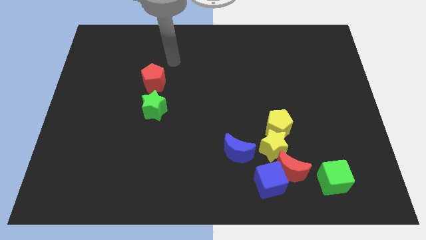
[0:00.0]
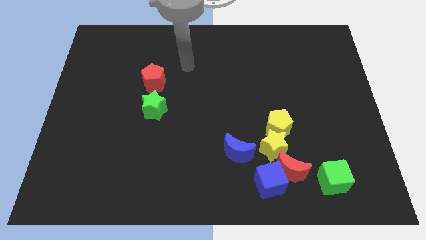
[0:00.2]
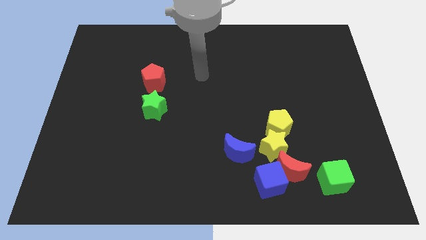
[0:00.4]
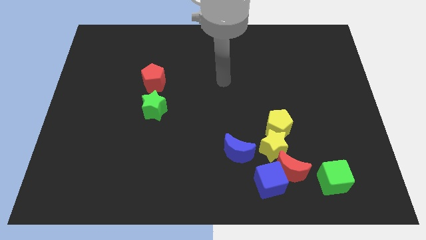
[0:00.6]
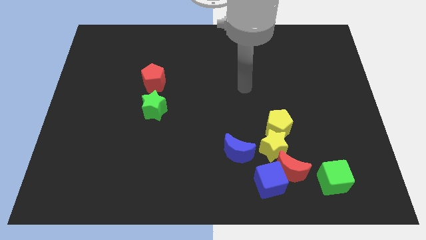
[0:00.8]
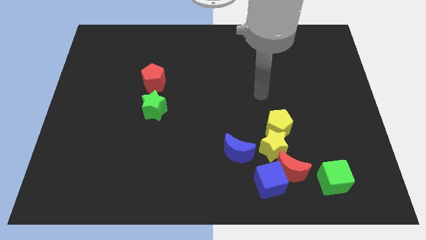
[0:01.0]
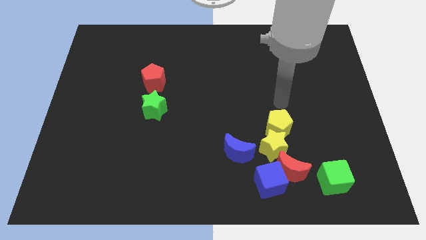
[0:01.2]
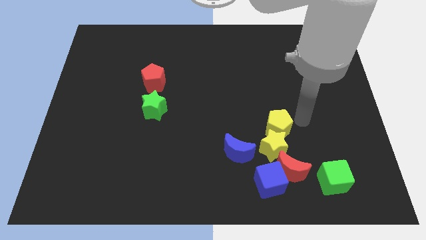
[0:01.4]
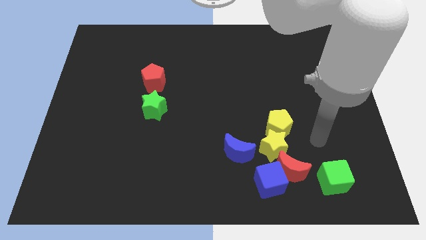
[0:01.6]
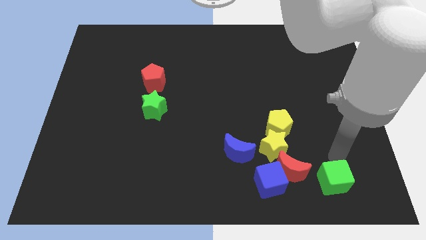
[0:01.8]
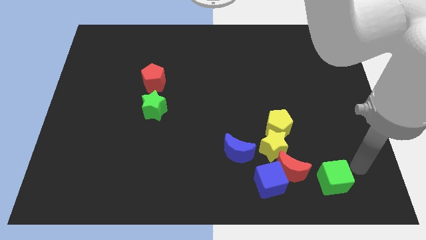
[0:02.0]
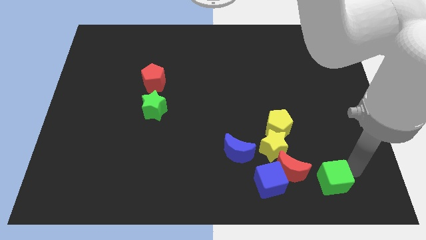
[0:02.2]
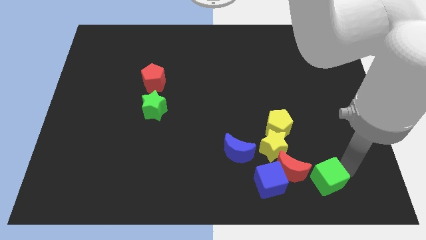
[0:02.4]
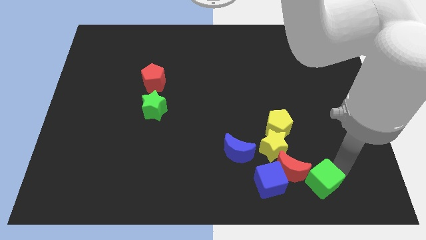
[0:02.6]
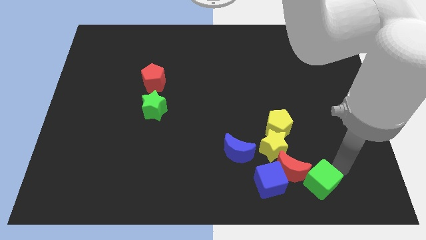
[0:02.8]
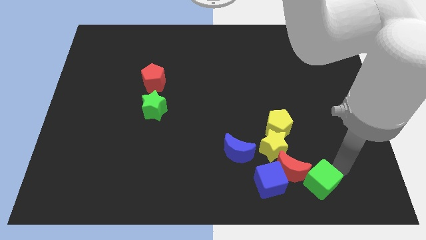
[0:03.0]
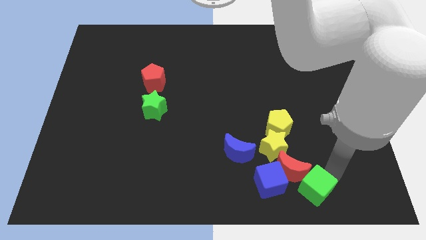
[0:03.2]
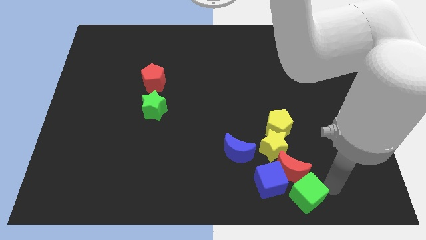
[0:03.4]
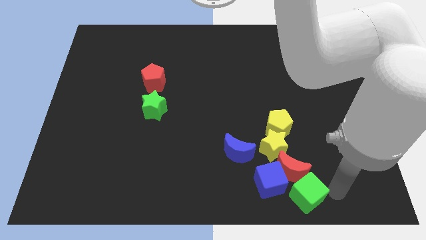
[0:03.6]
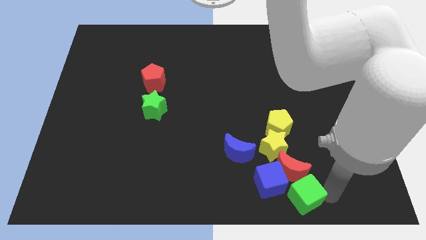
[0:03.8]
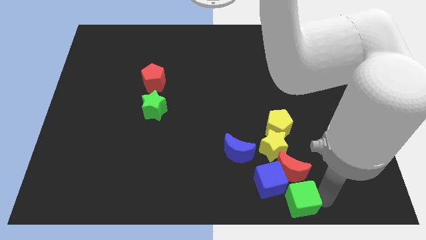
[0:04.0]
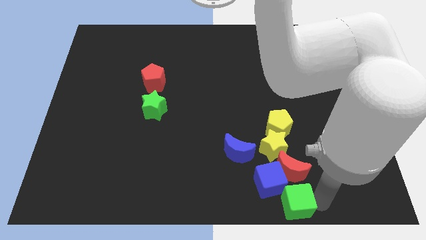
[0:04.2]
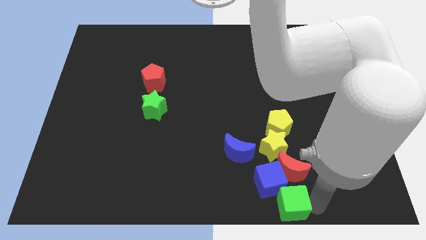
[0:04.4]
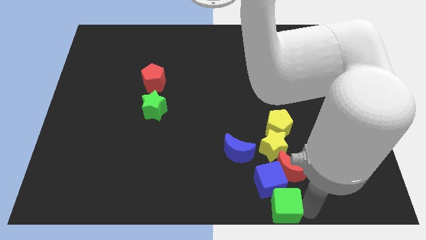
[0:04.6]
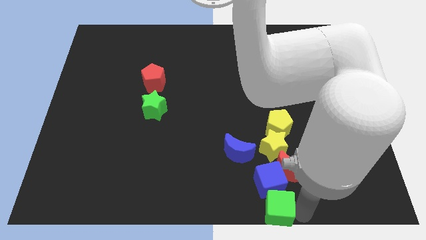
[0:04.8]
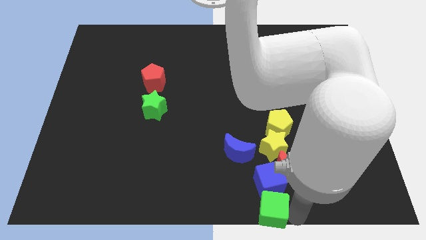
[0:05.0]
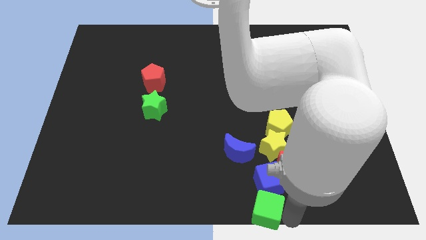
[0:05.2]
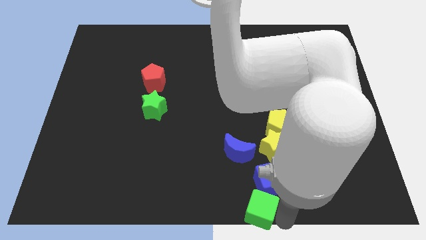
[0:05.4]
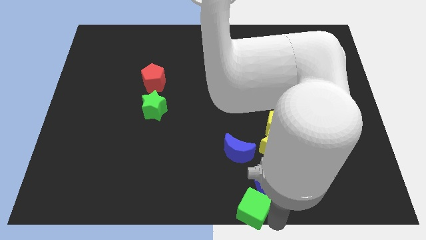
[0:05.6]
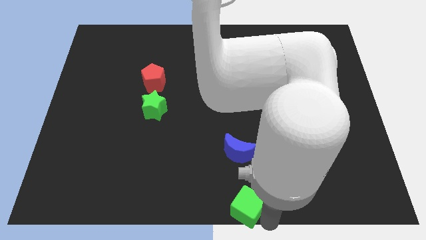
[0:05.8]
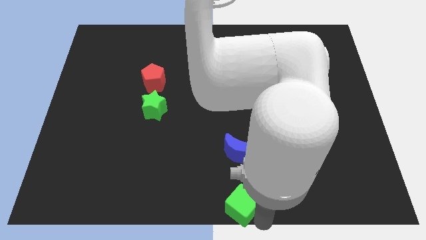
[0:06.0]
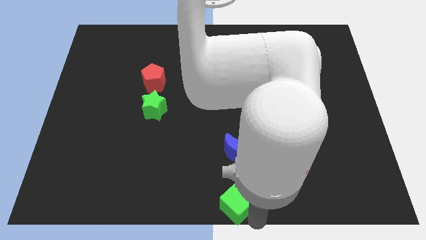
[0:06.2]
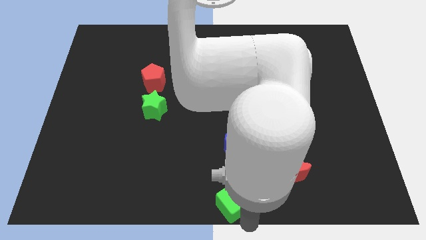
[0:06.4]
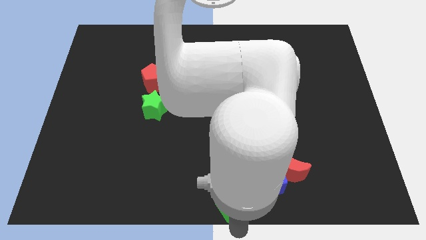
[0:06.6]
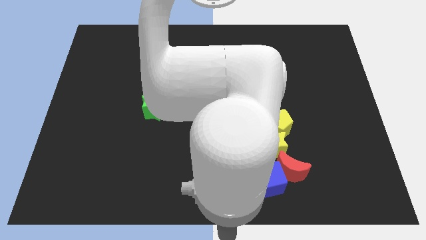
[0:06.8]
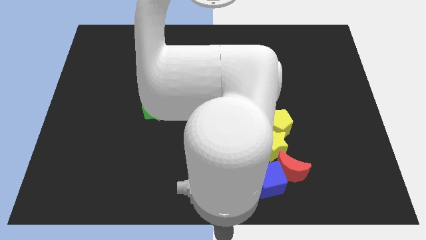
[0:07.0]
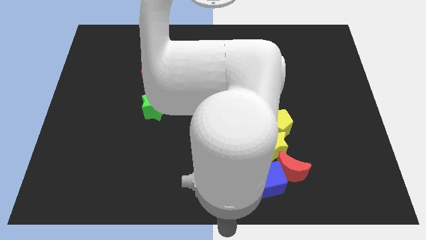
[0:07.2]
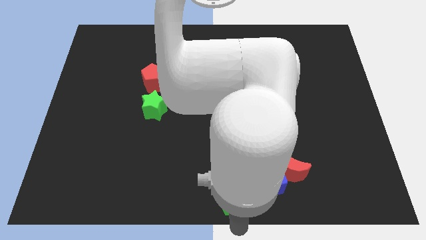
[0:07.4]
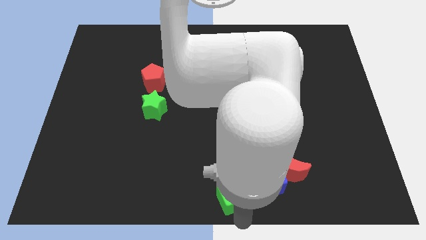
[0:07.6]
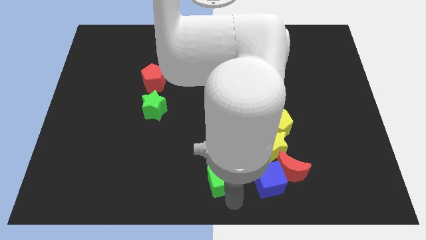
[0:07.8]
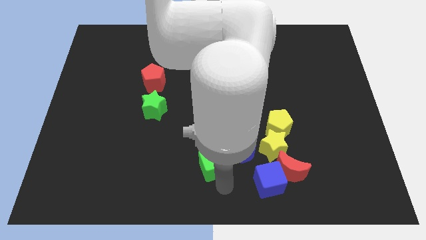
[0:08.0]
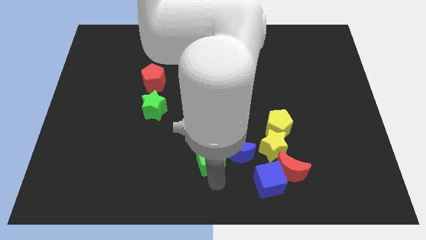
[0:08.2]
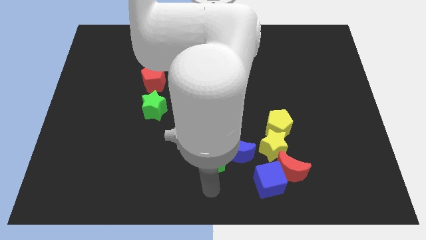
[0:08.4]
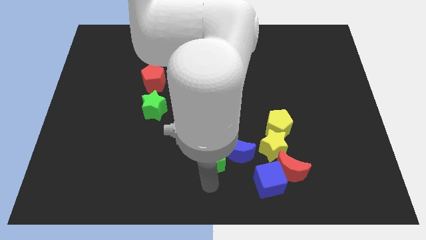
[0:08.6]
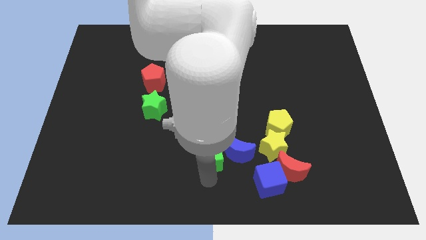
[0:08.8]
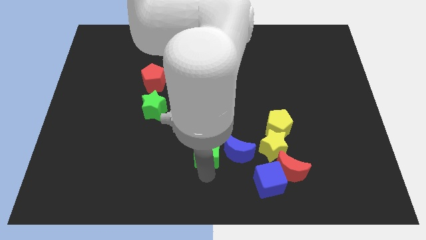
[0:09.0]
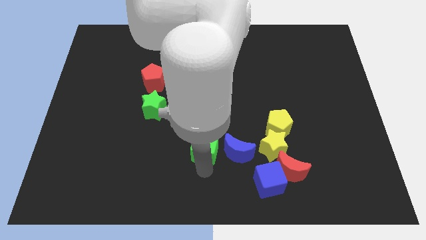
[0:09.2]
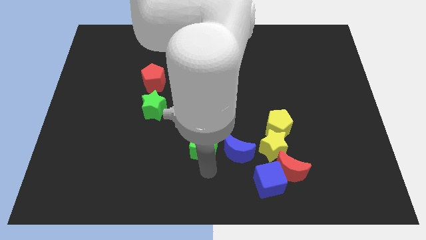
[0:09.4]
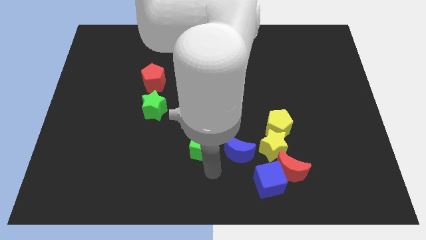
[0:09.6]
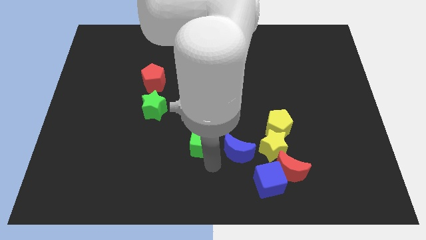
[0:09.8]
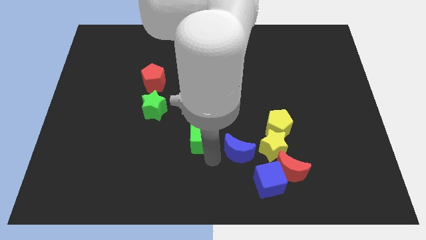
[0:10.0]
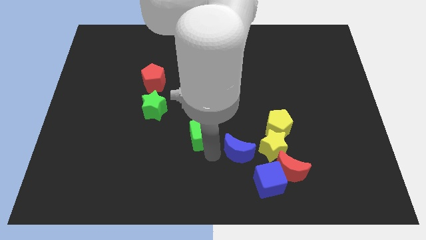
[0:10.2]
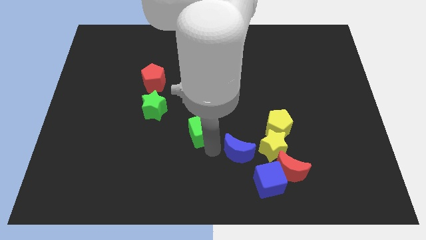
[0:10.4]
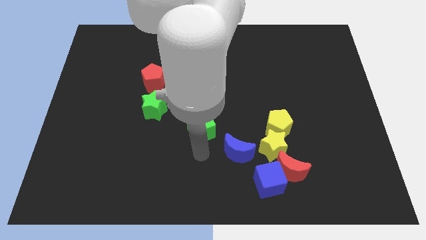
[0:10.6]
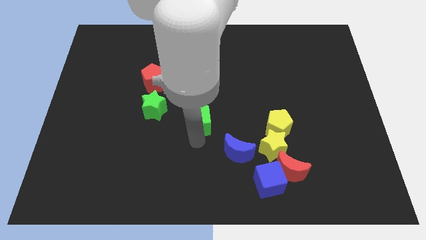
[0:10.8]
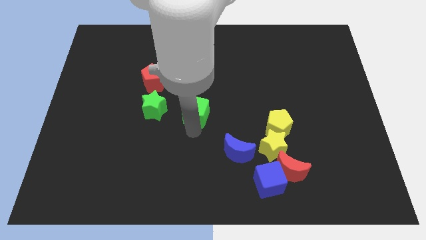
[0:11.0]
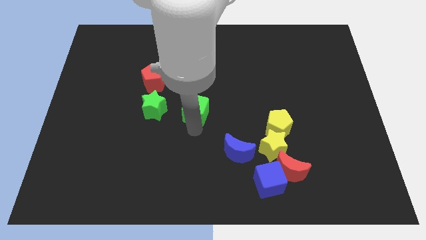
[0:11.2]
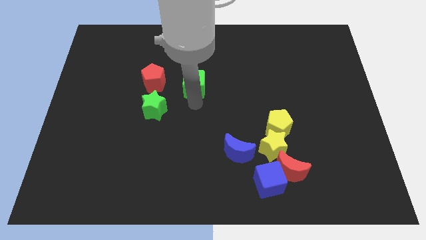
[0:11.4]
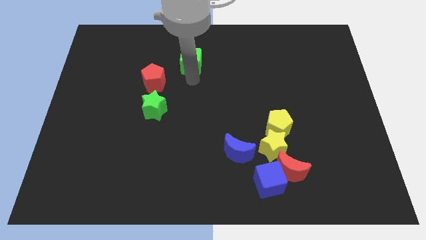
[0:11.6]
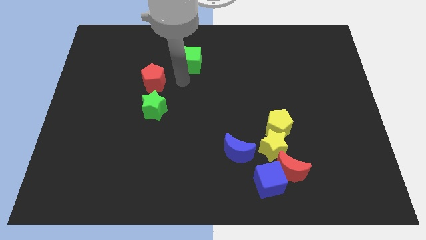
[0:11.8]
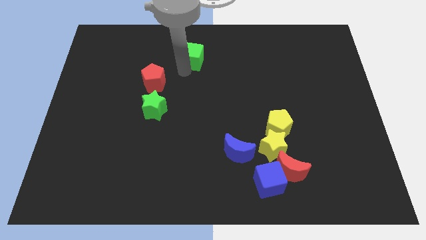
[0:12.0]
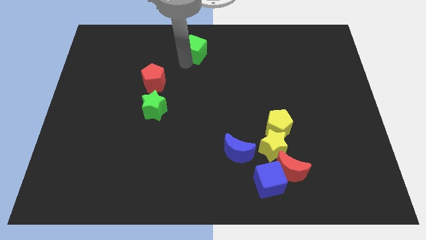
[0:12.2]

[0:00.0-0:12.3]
move the green cube to the towards your base
